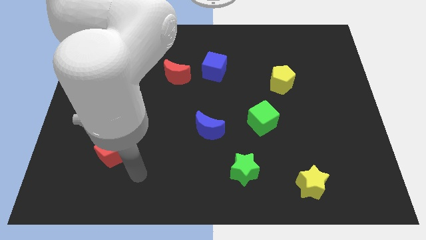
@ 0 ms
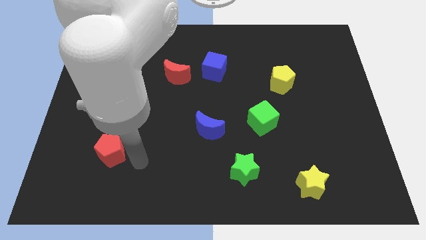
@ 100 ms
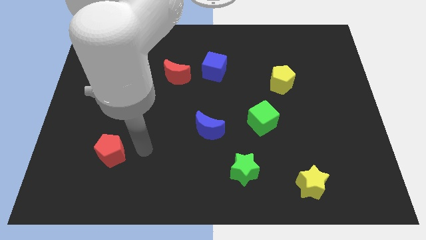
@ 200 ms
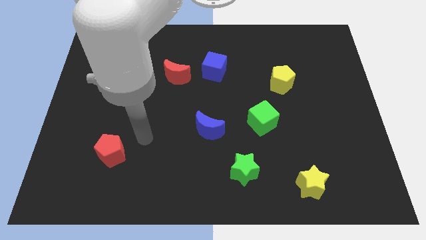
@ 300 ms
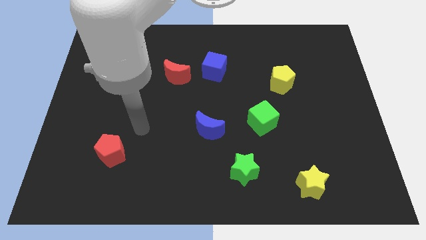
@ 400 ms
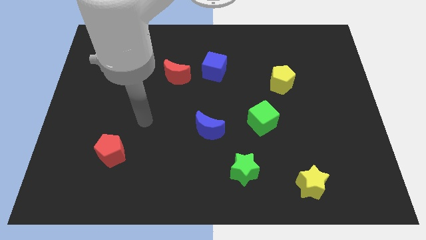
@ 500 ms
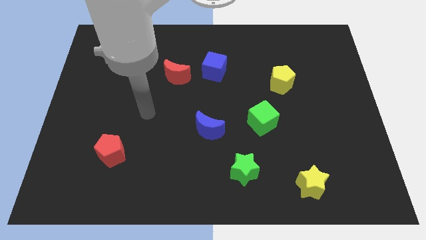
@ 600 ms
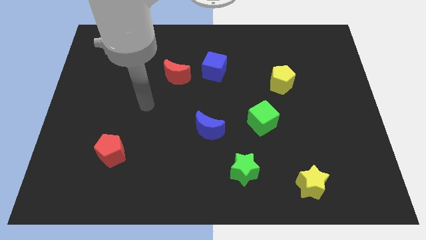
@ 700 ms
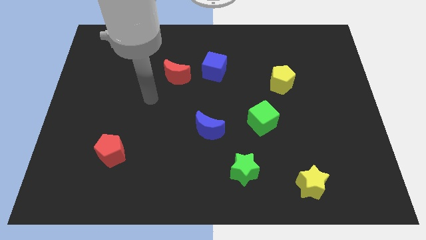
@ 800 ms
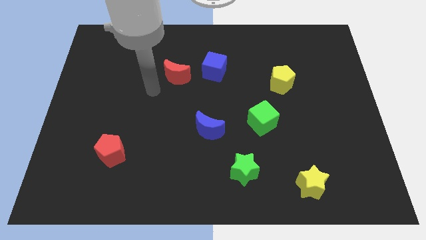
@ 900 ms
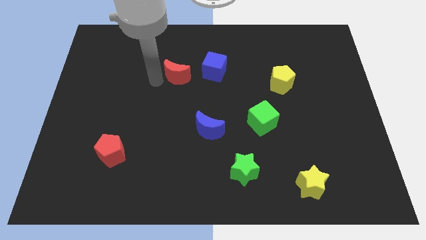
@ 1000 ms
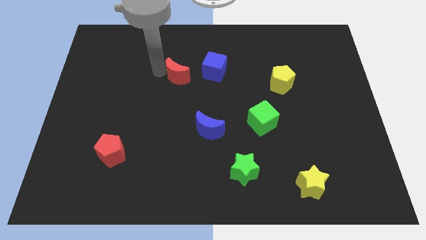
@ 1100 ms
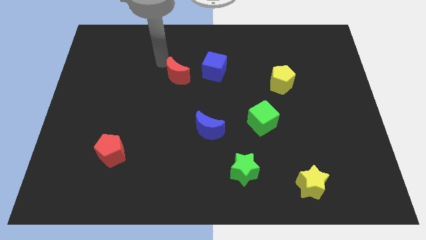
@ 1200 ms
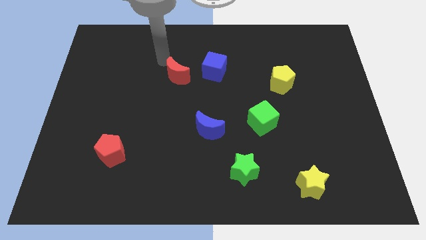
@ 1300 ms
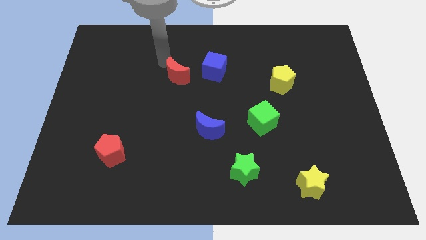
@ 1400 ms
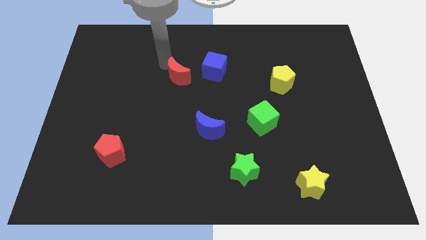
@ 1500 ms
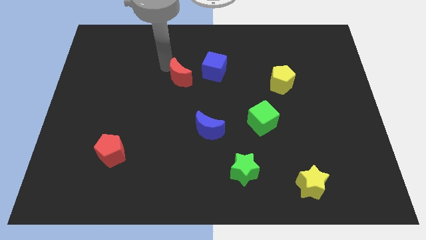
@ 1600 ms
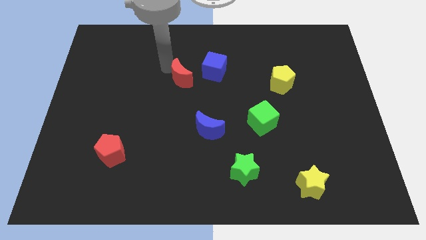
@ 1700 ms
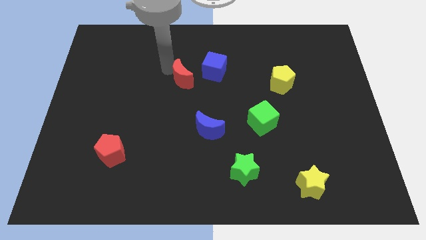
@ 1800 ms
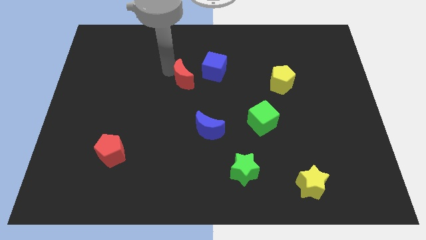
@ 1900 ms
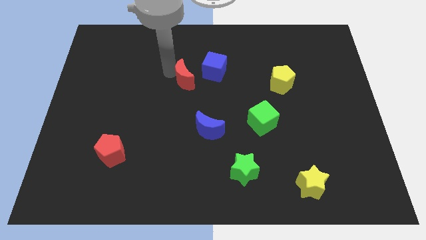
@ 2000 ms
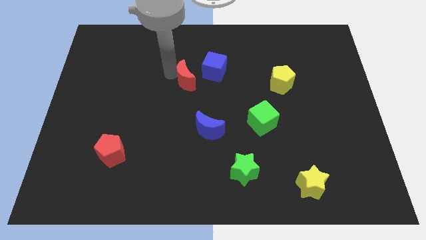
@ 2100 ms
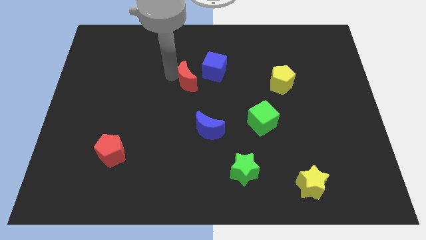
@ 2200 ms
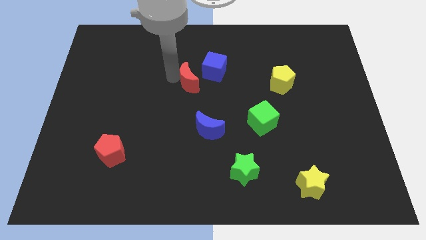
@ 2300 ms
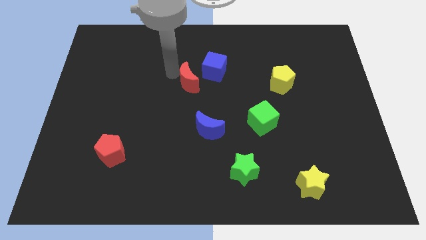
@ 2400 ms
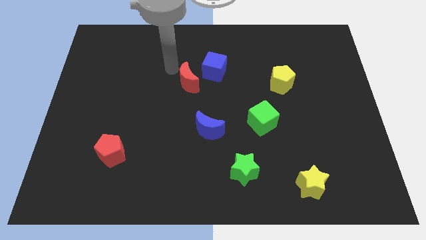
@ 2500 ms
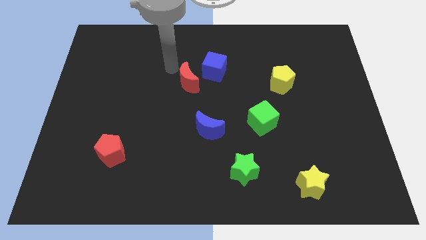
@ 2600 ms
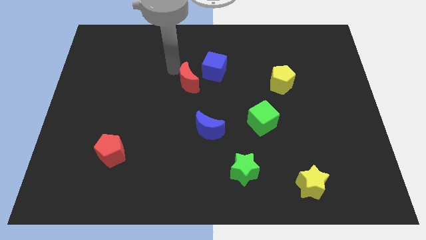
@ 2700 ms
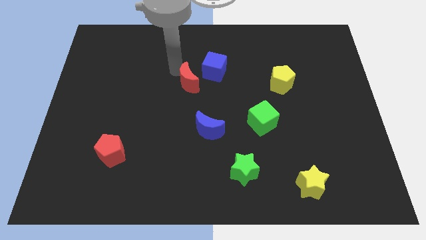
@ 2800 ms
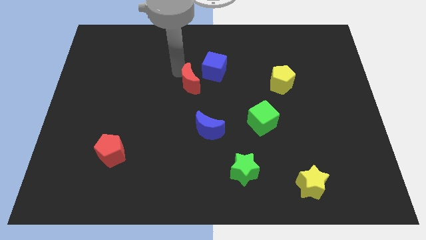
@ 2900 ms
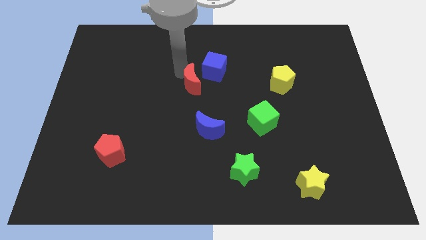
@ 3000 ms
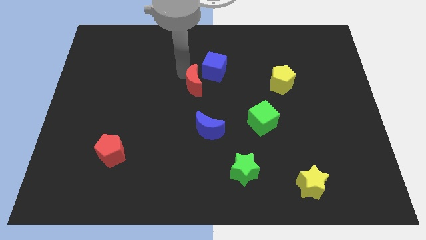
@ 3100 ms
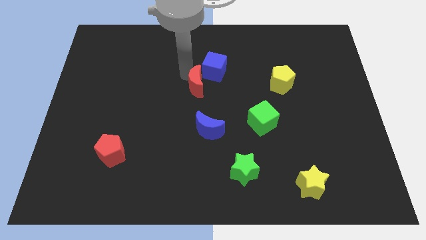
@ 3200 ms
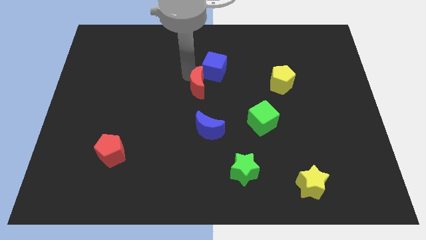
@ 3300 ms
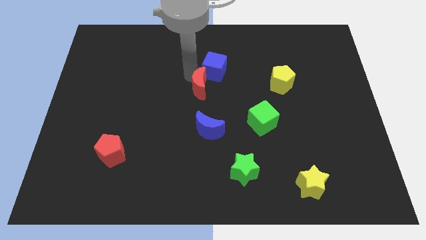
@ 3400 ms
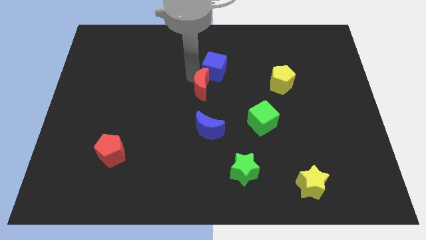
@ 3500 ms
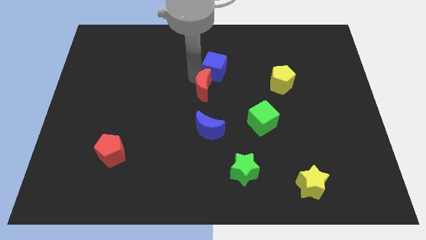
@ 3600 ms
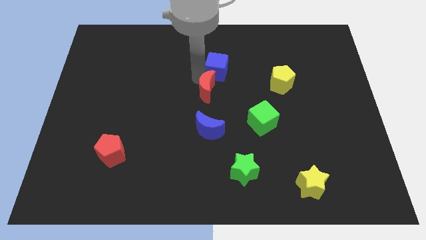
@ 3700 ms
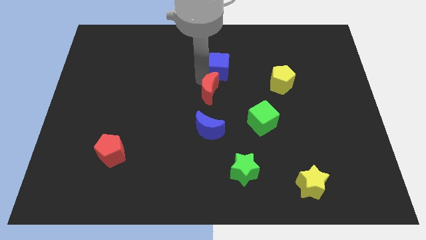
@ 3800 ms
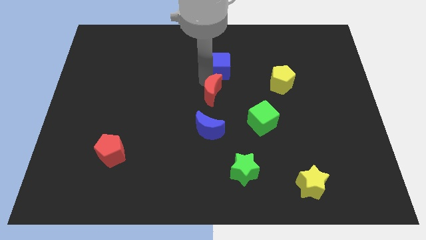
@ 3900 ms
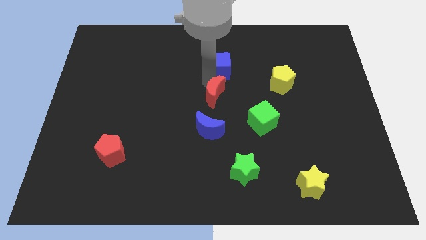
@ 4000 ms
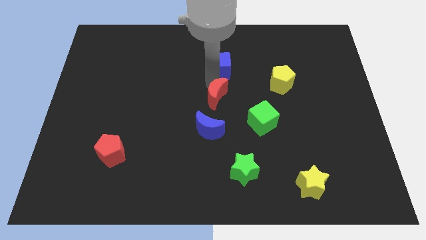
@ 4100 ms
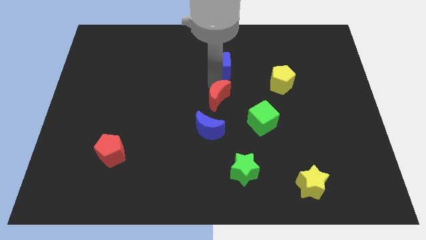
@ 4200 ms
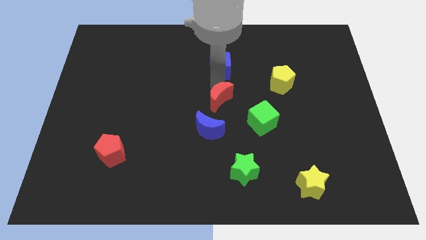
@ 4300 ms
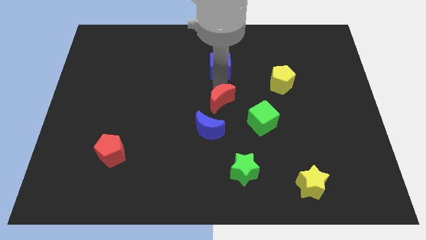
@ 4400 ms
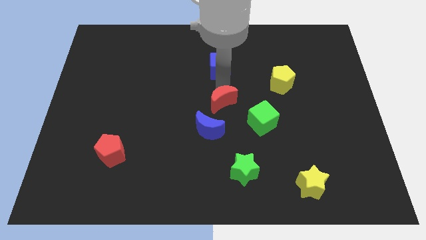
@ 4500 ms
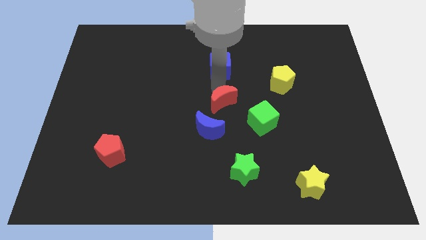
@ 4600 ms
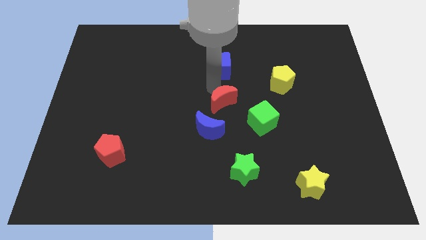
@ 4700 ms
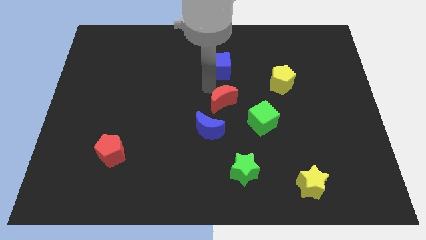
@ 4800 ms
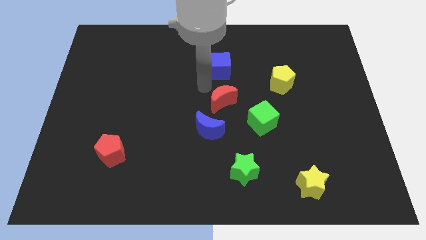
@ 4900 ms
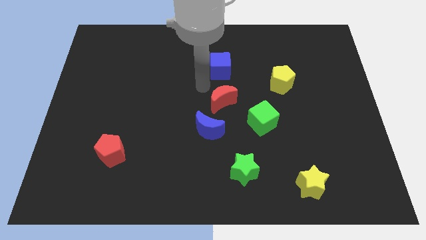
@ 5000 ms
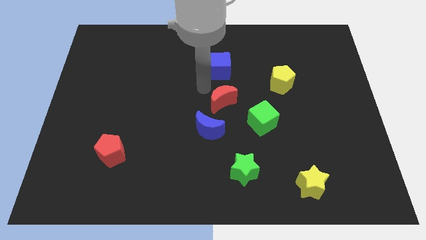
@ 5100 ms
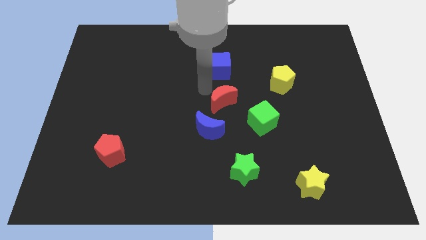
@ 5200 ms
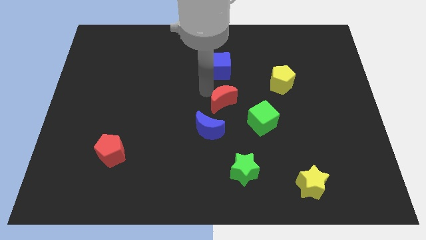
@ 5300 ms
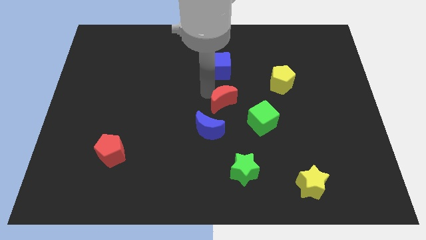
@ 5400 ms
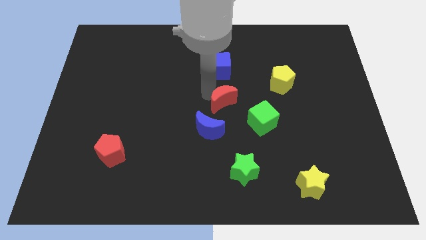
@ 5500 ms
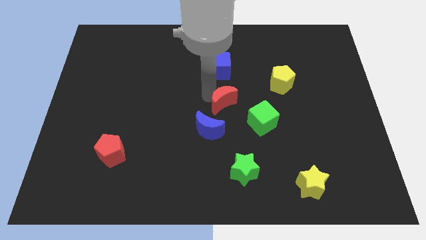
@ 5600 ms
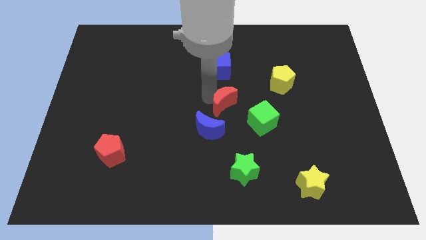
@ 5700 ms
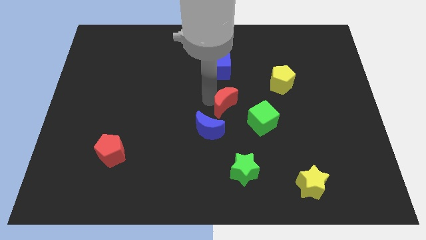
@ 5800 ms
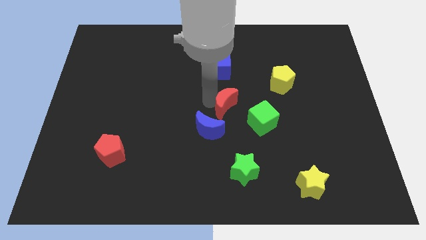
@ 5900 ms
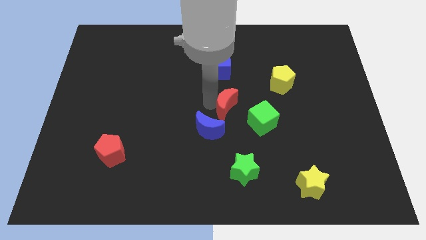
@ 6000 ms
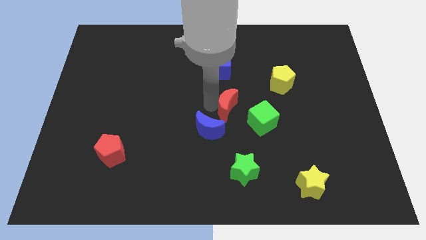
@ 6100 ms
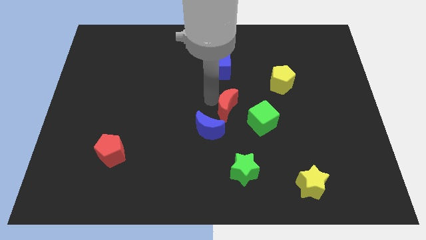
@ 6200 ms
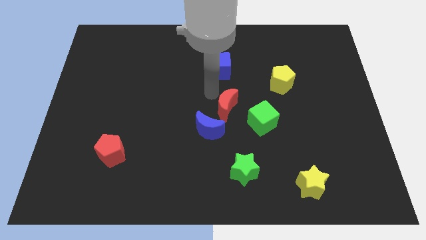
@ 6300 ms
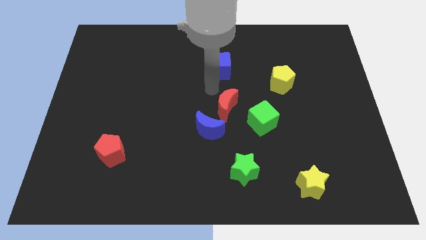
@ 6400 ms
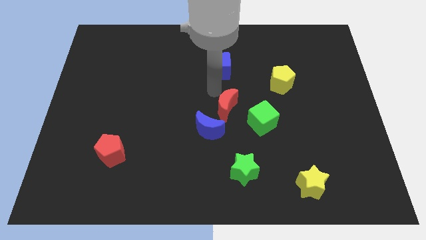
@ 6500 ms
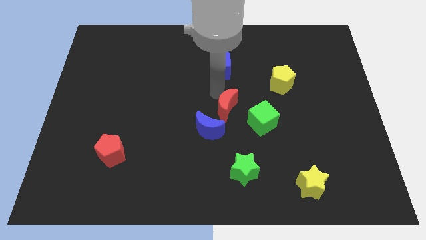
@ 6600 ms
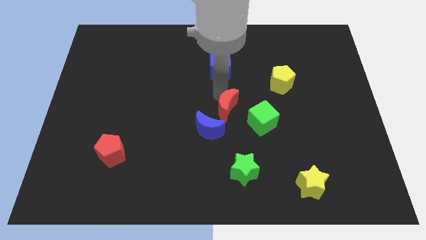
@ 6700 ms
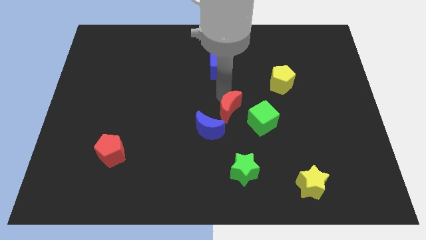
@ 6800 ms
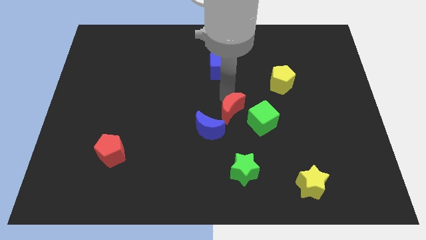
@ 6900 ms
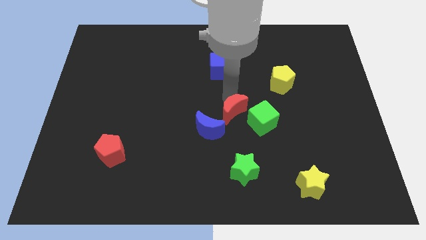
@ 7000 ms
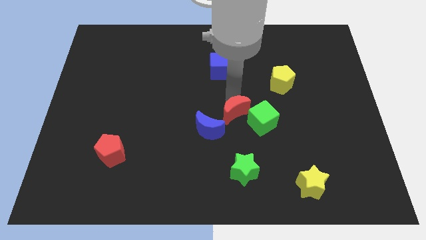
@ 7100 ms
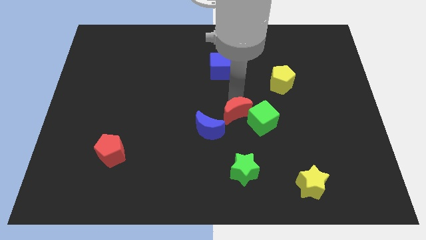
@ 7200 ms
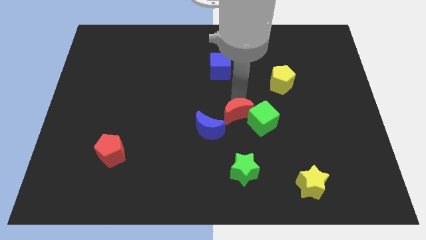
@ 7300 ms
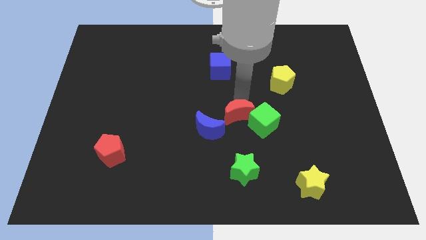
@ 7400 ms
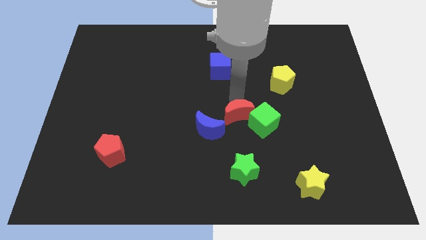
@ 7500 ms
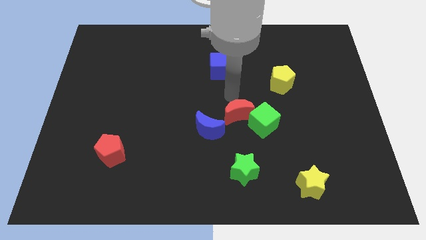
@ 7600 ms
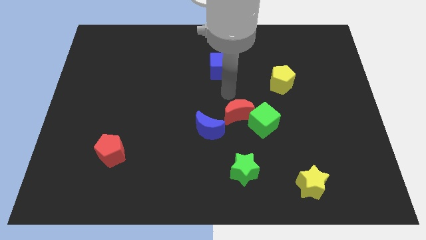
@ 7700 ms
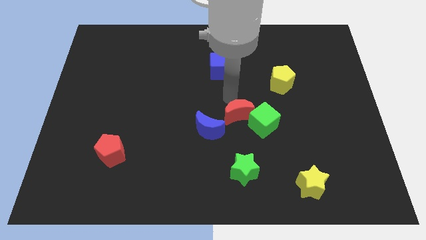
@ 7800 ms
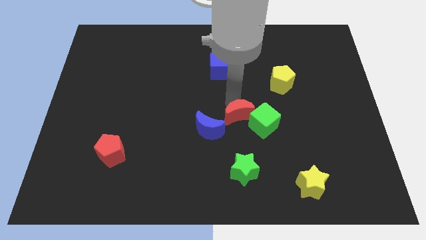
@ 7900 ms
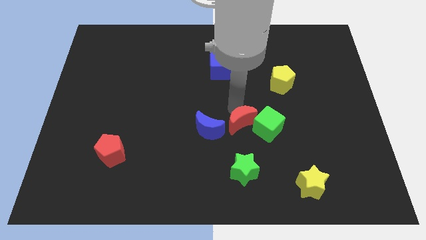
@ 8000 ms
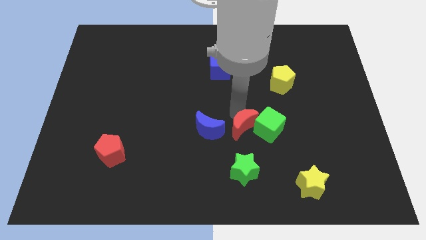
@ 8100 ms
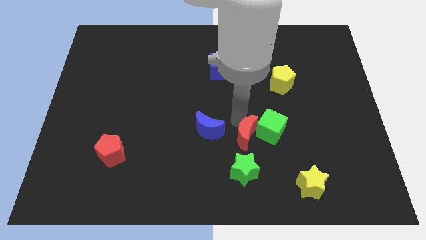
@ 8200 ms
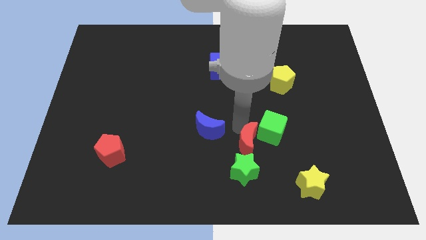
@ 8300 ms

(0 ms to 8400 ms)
slide the red moon diagonally up and to the right of the green star
